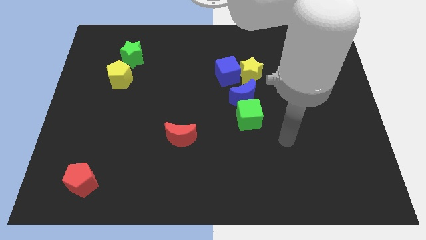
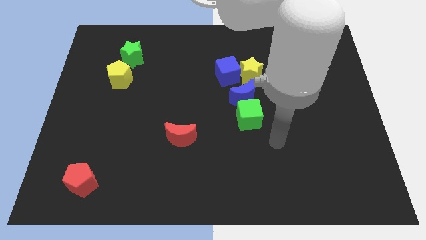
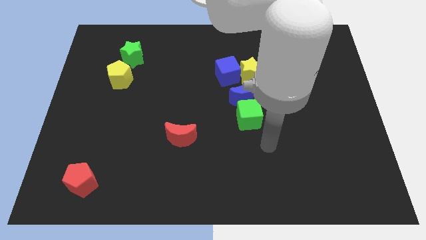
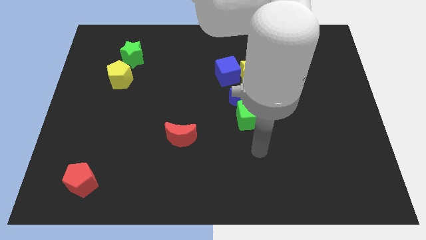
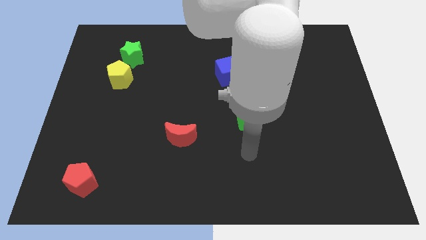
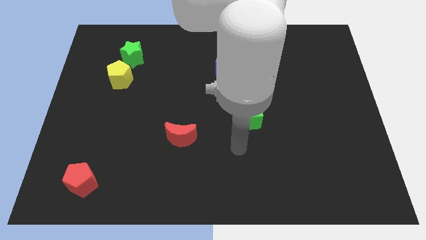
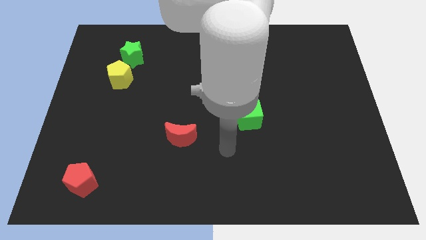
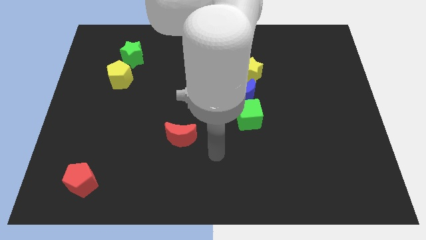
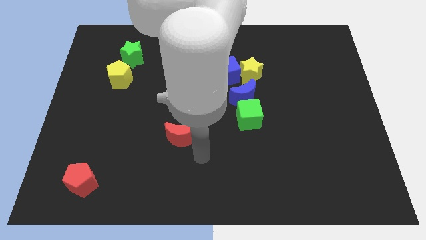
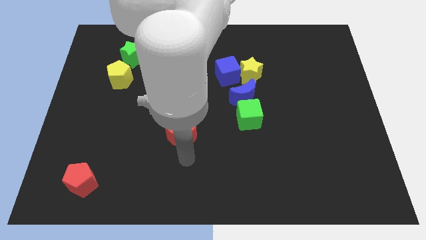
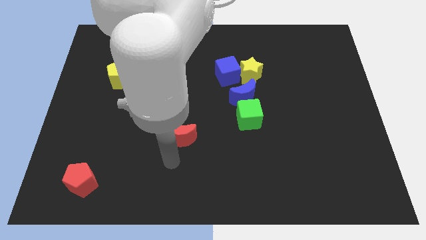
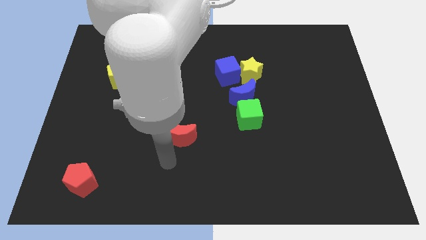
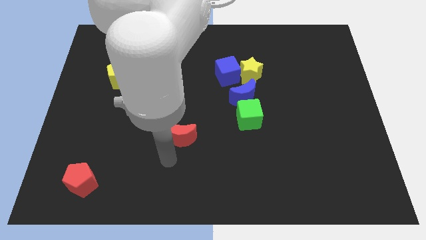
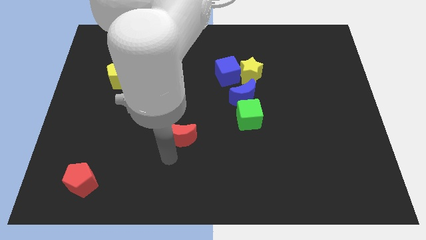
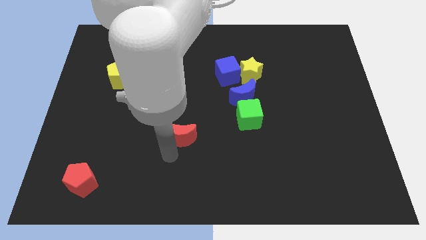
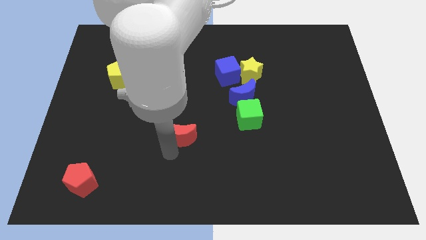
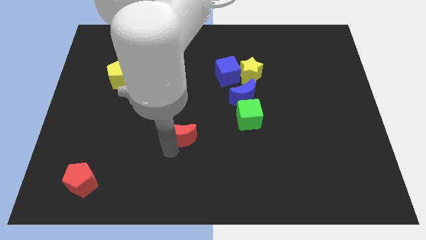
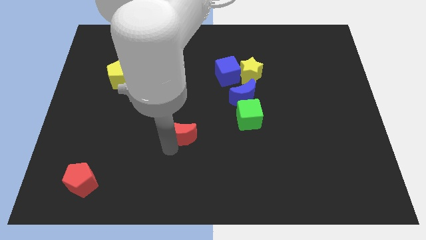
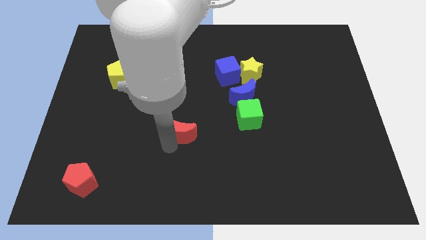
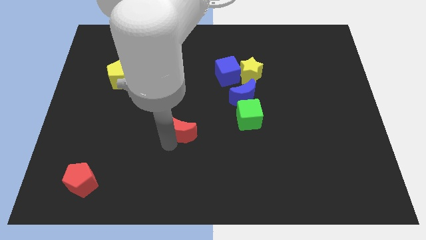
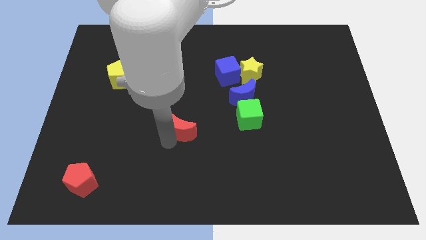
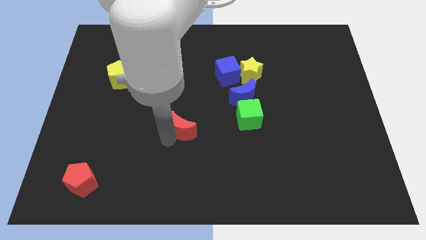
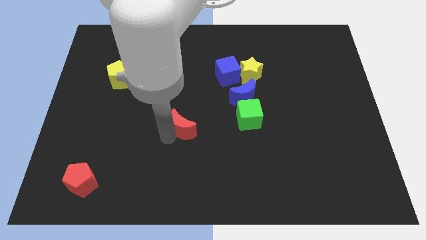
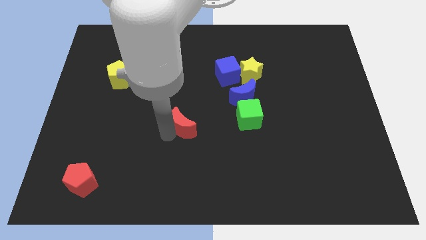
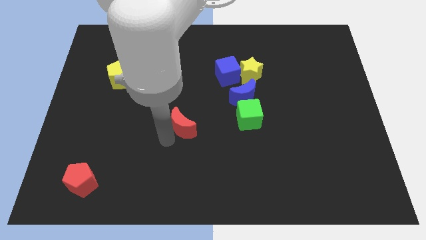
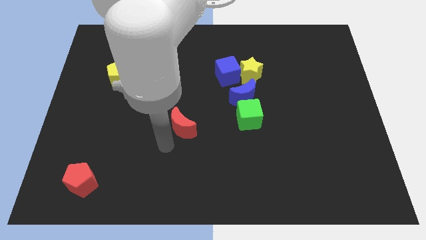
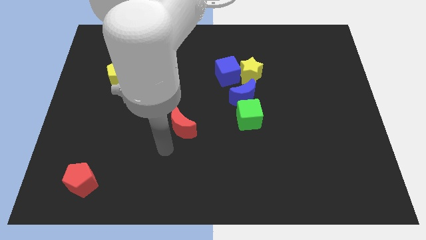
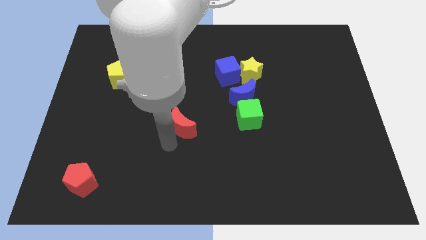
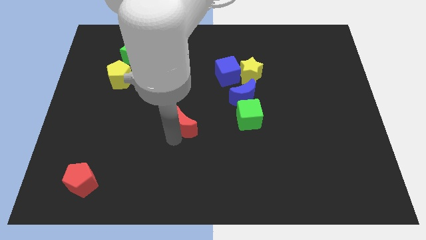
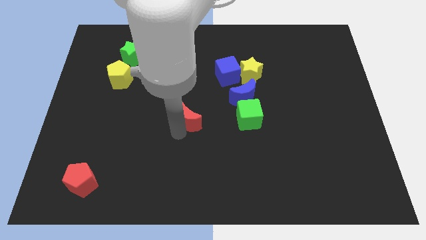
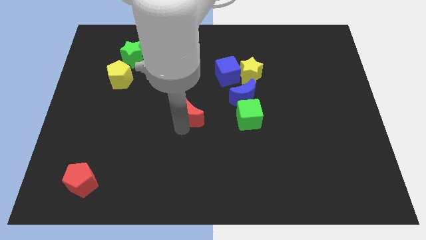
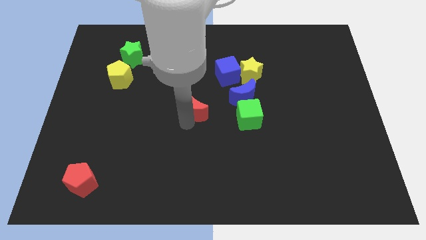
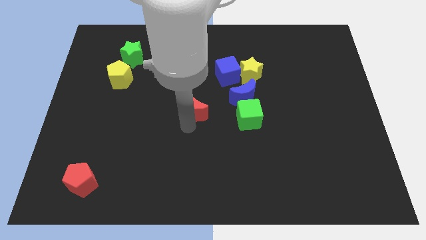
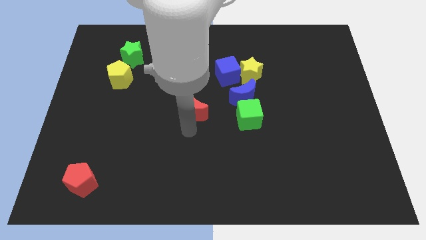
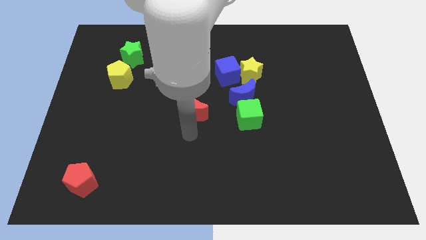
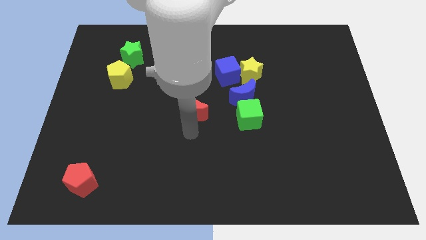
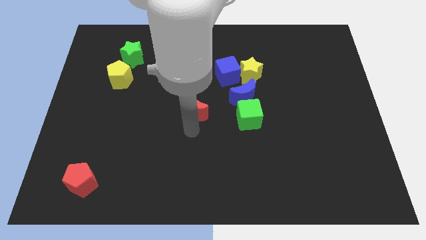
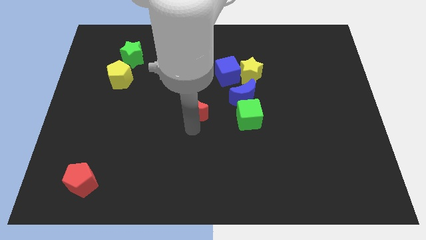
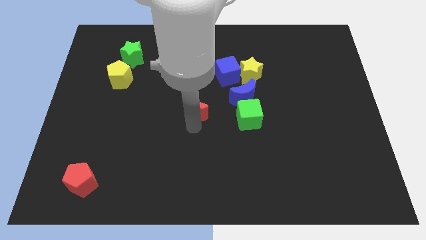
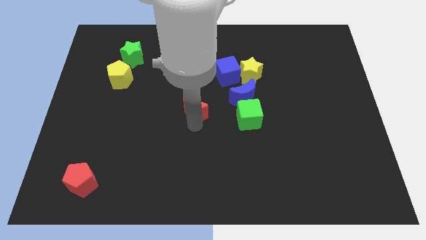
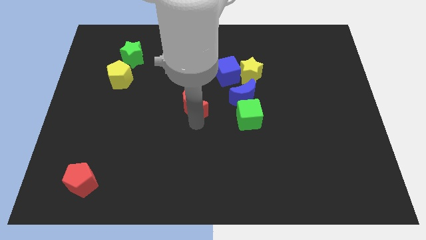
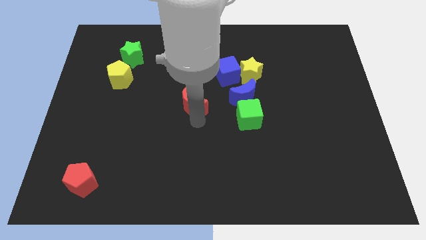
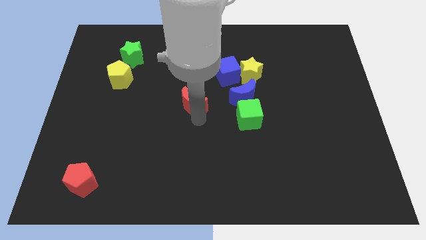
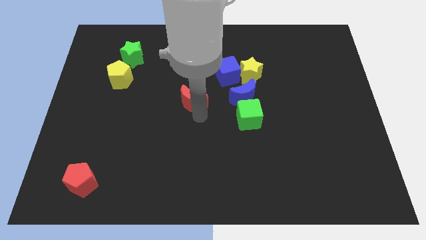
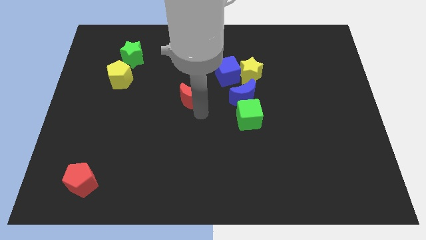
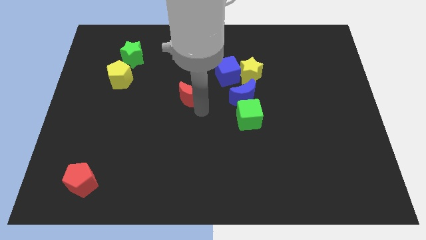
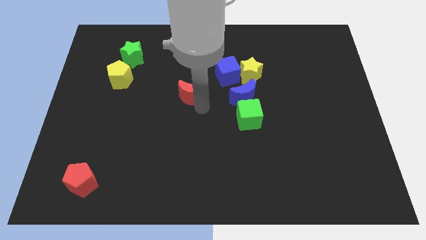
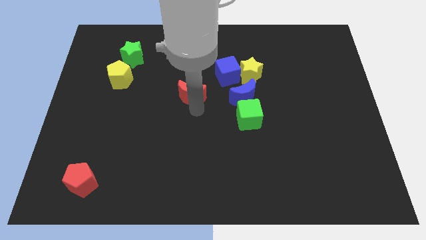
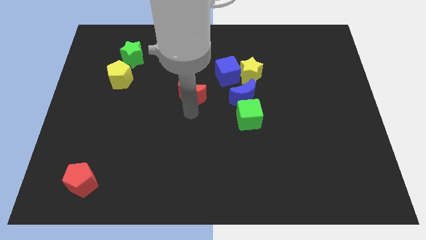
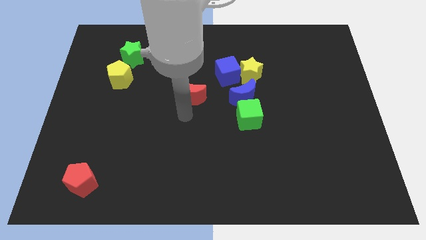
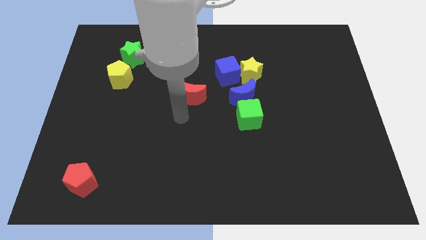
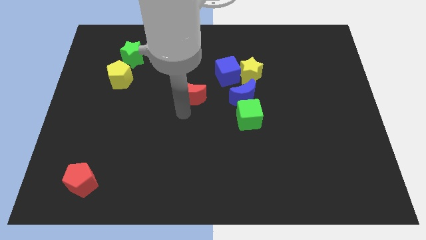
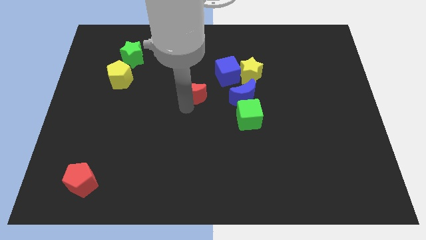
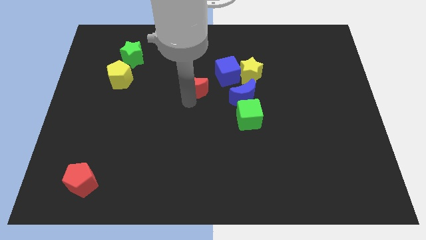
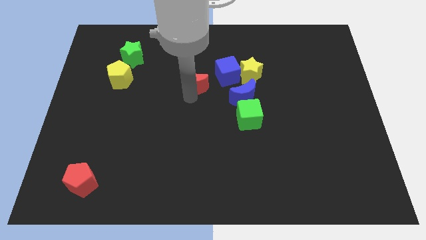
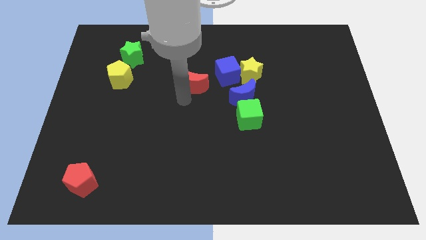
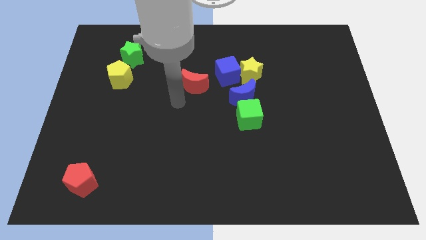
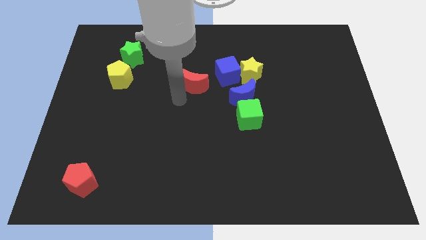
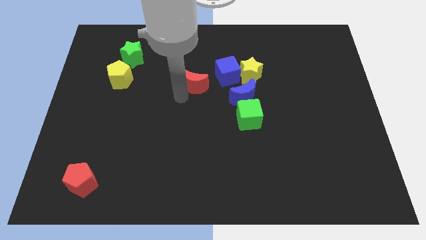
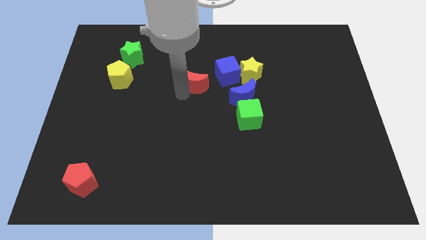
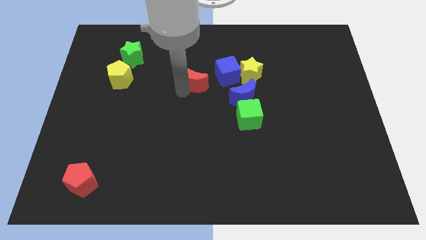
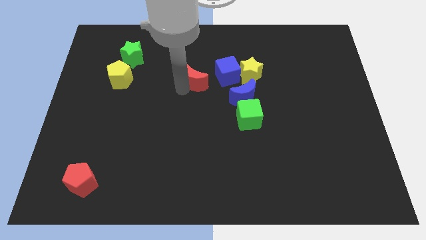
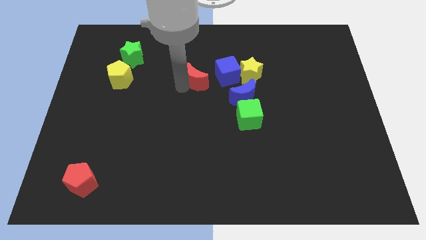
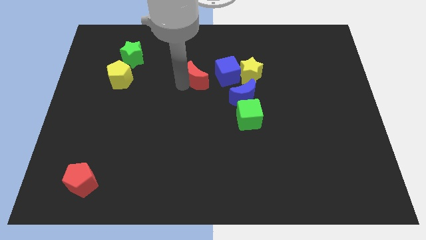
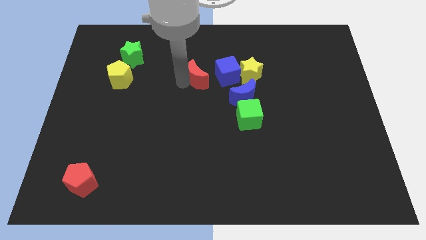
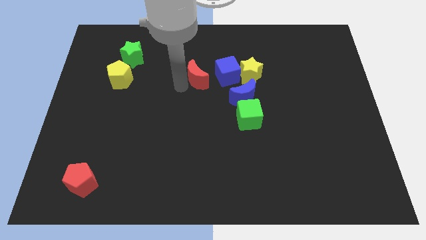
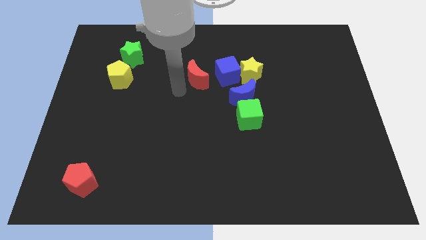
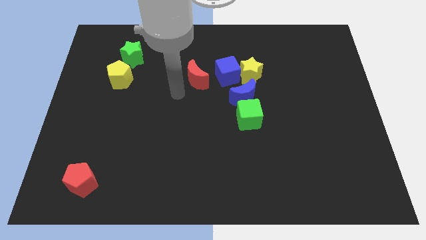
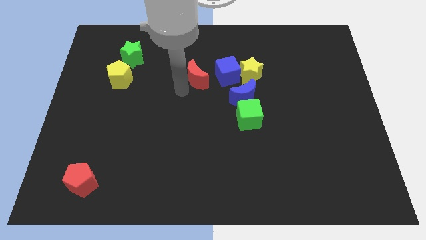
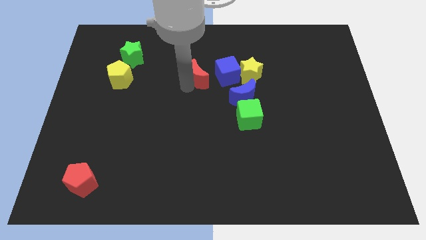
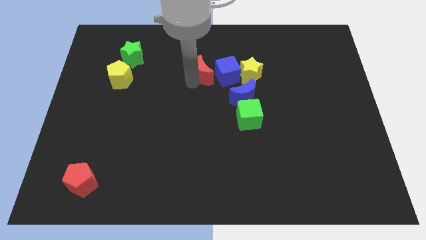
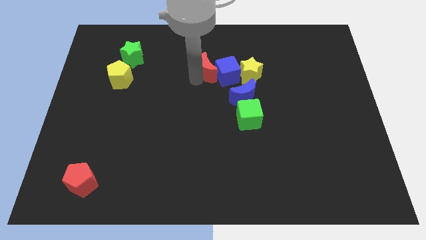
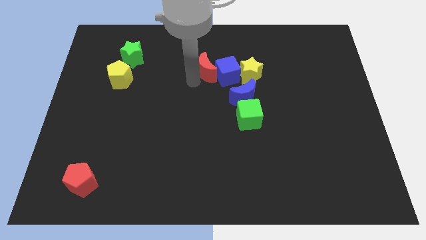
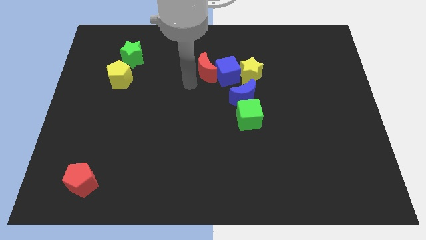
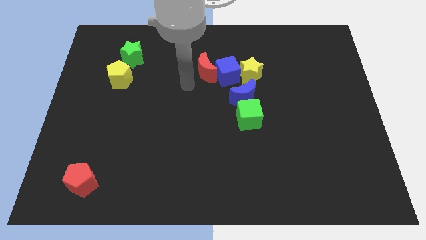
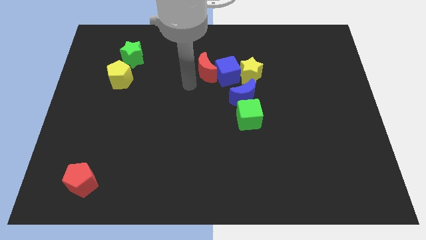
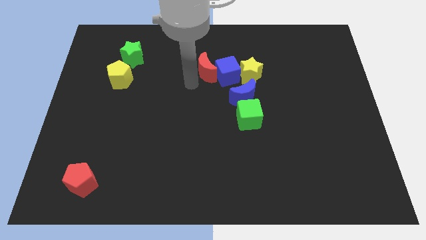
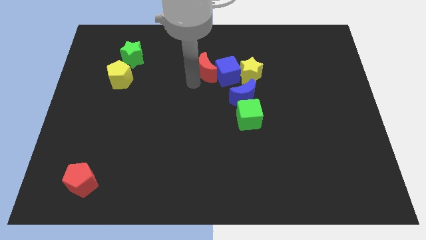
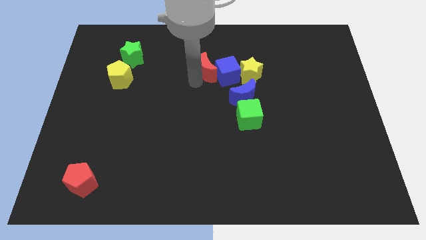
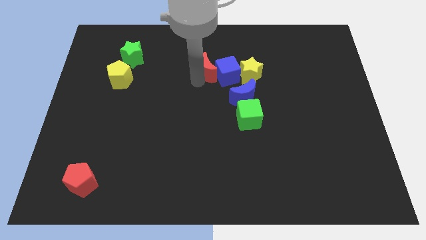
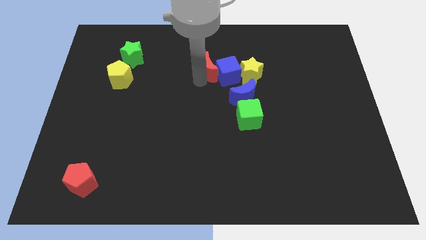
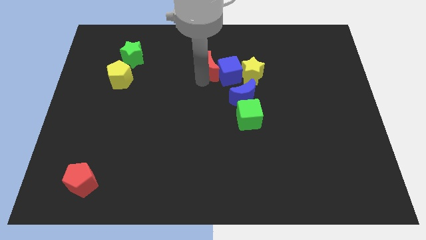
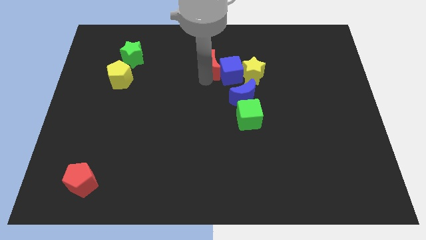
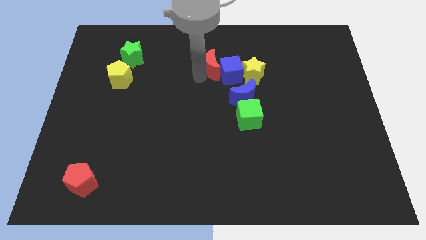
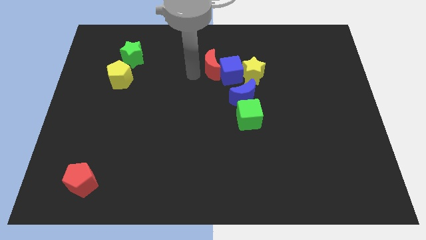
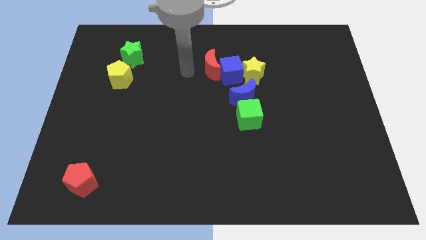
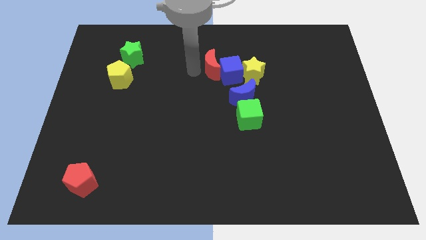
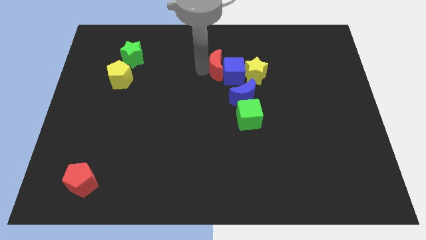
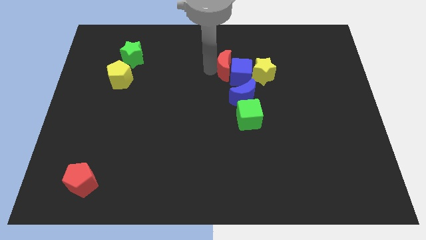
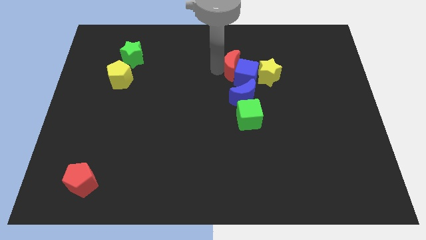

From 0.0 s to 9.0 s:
slide the red moon up and right diagonally
